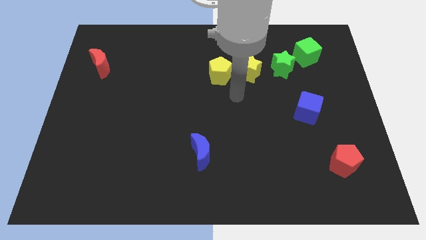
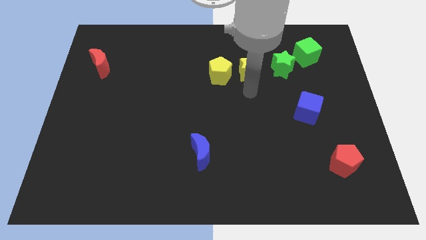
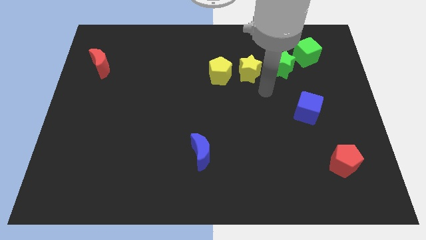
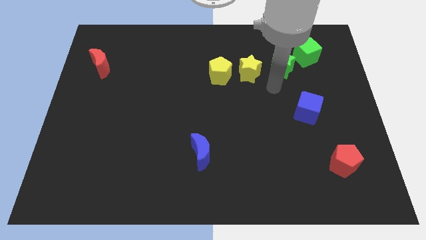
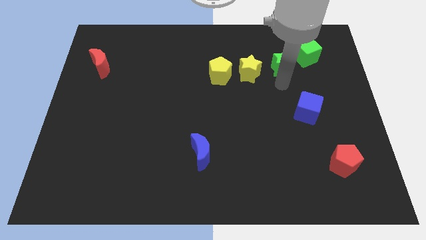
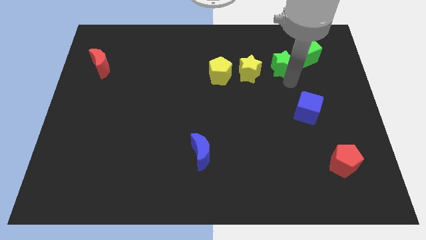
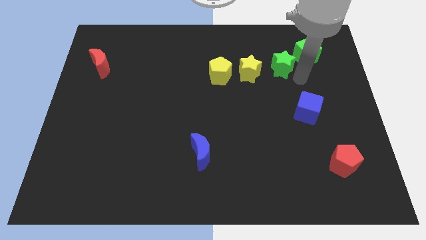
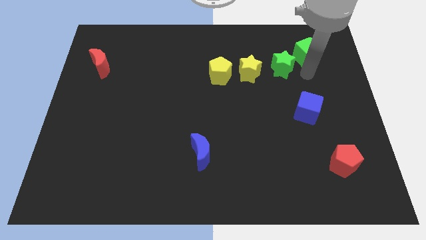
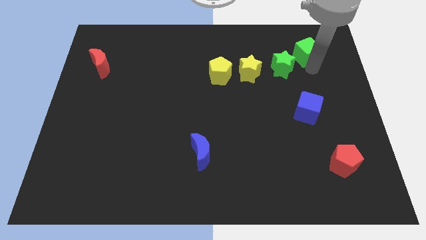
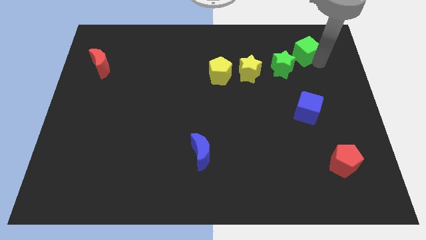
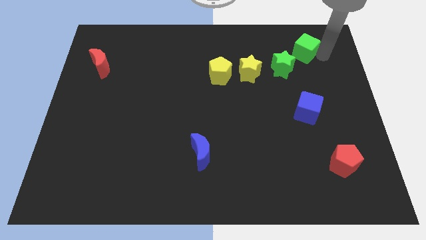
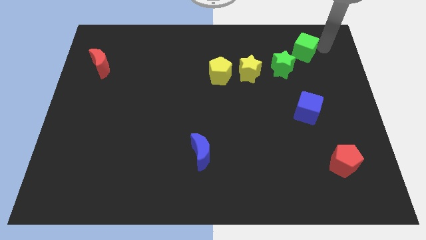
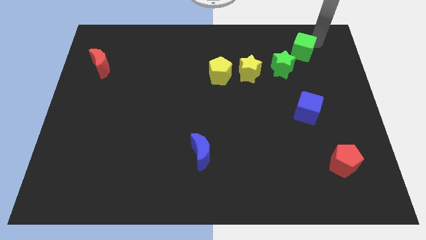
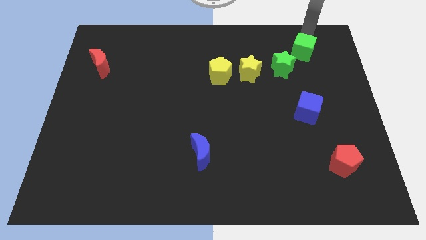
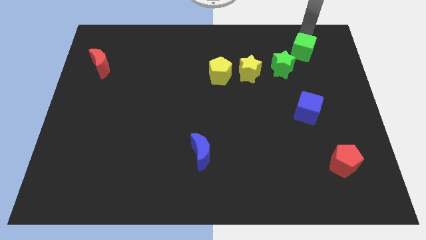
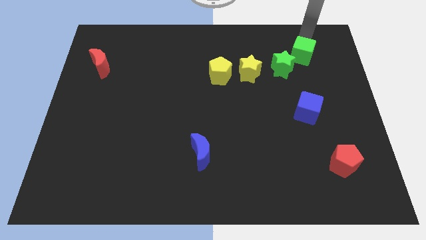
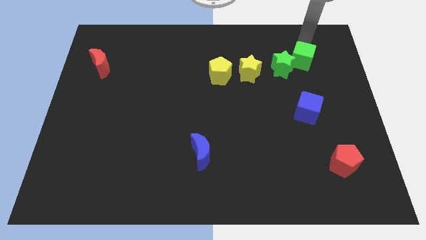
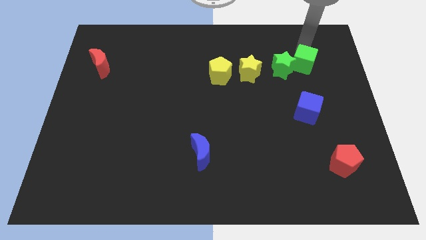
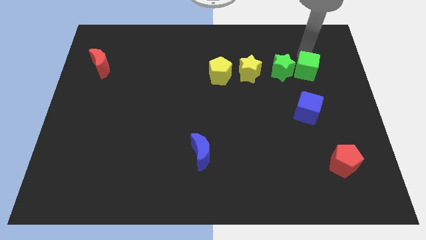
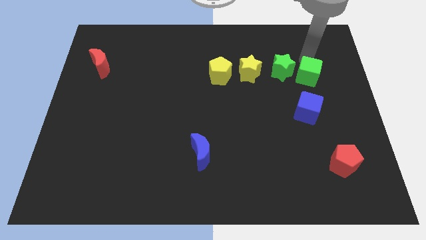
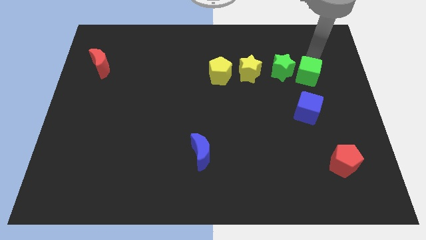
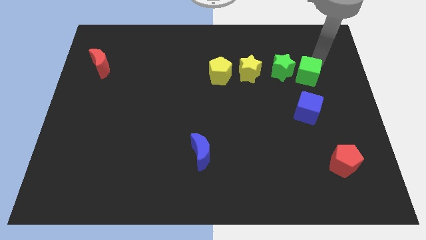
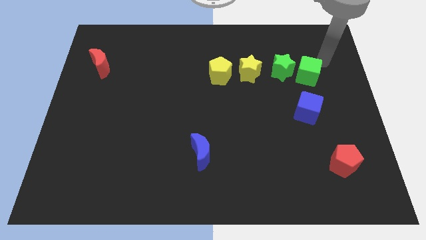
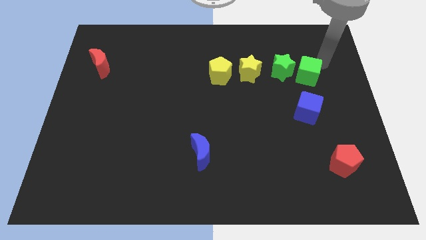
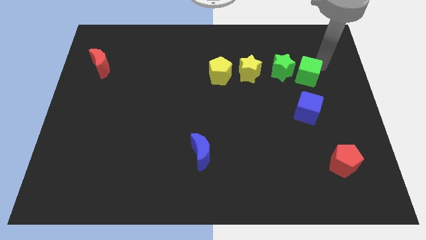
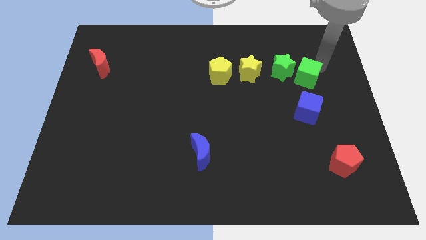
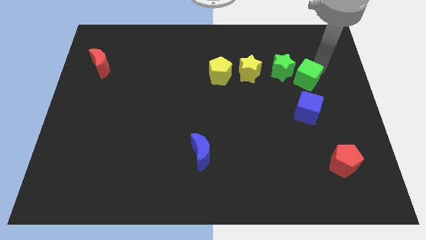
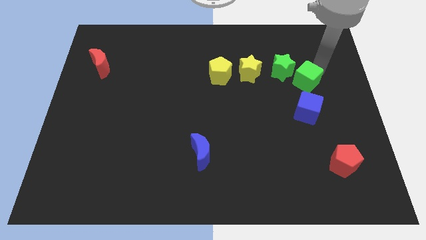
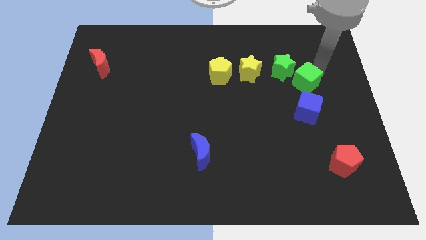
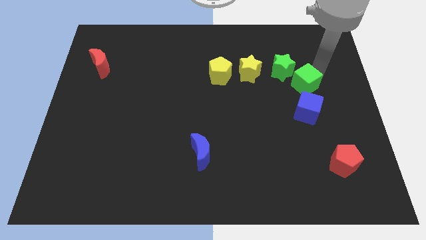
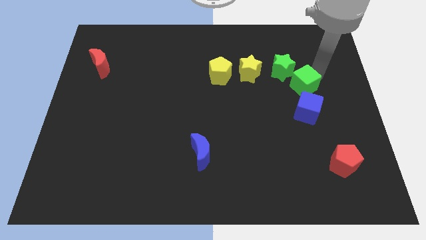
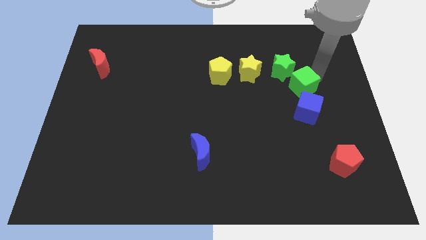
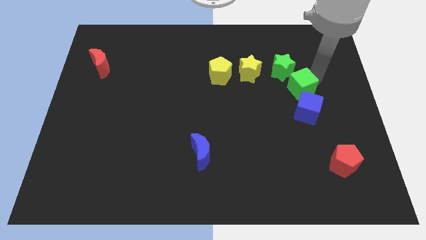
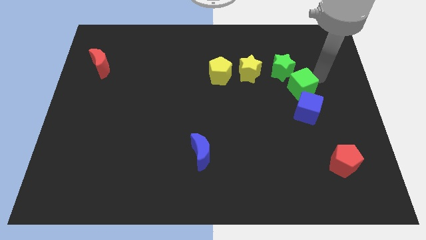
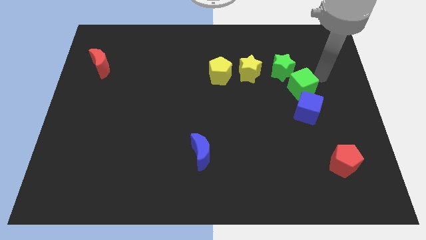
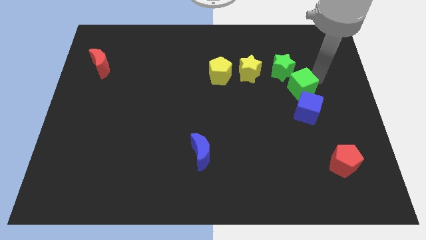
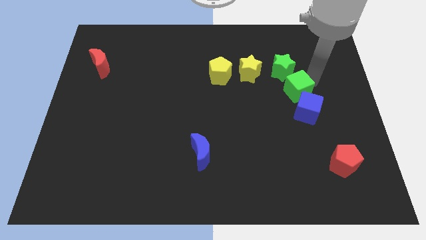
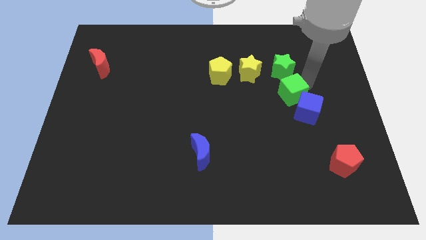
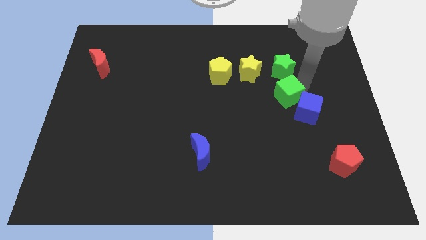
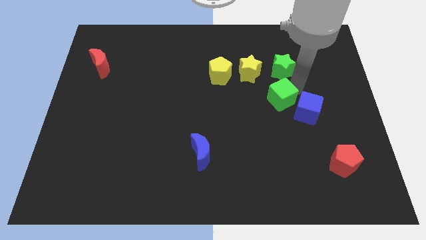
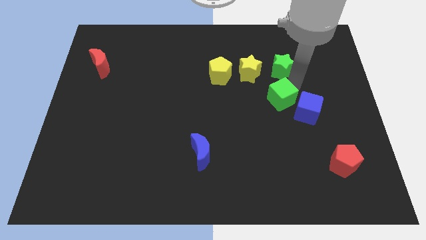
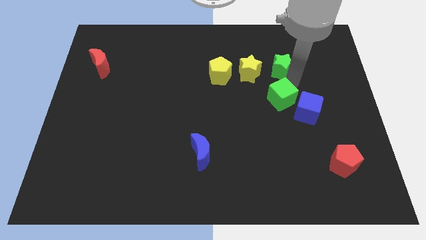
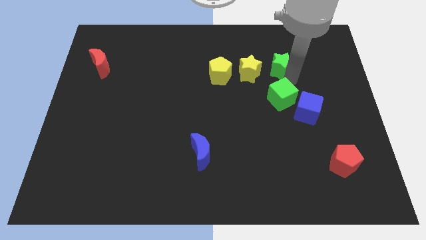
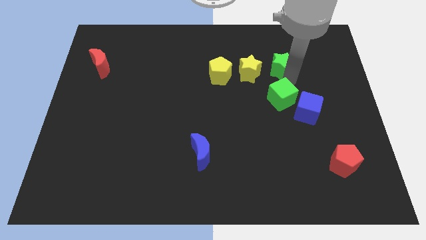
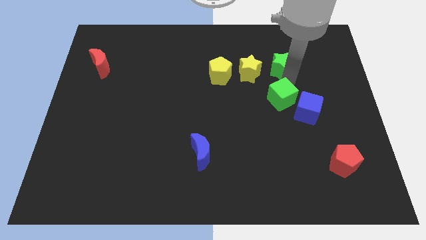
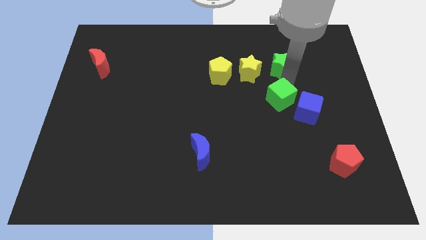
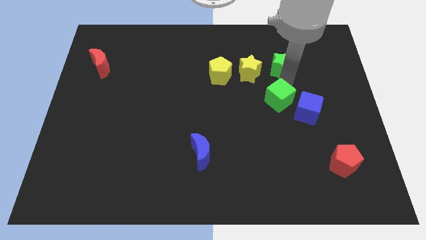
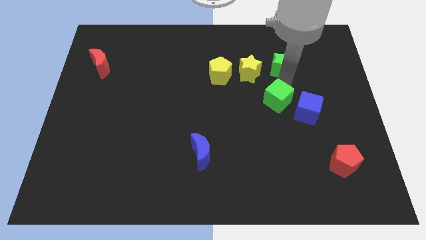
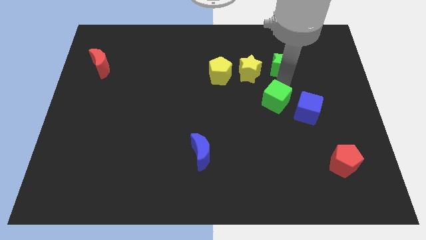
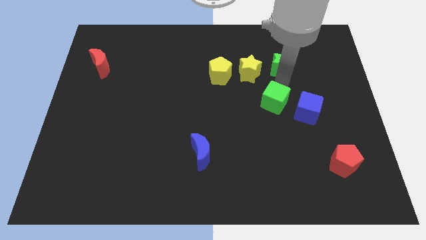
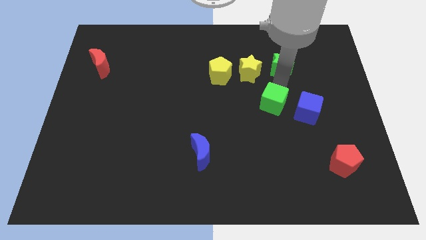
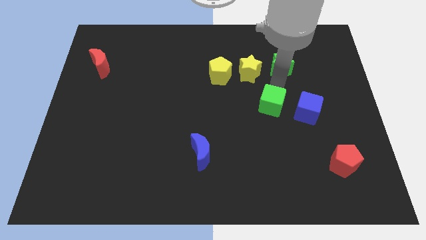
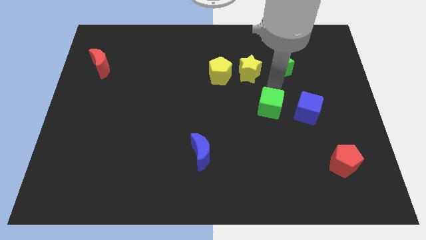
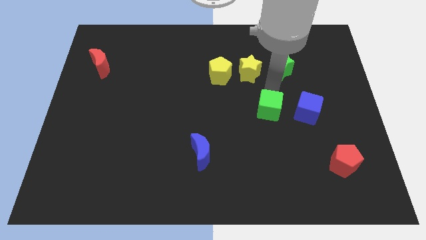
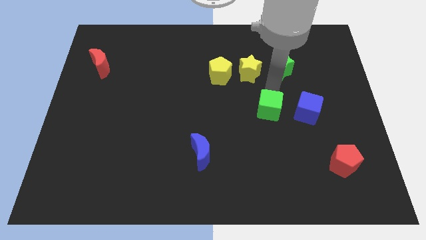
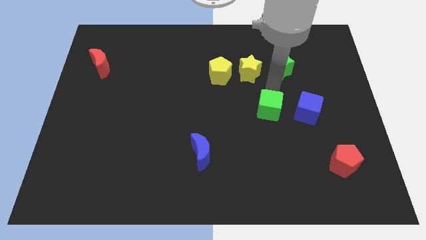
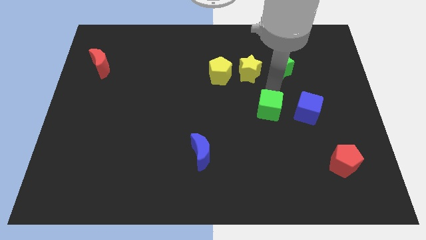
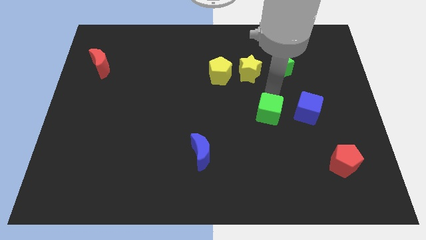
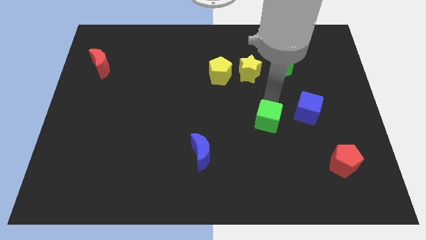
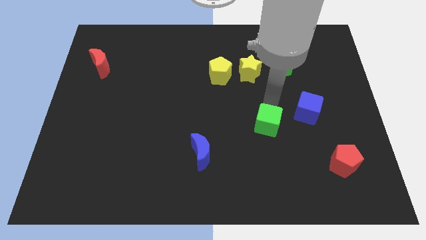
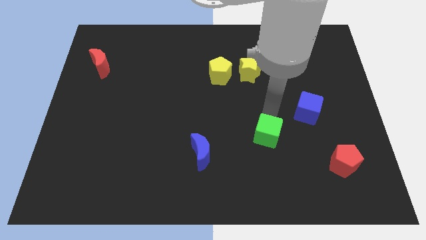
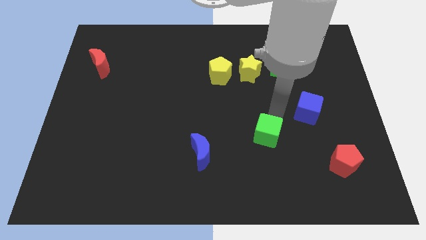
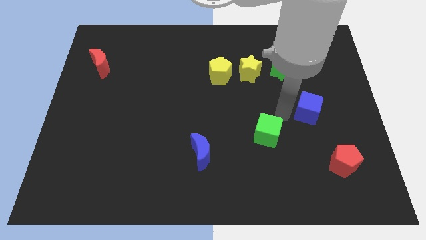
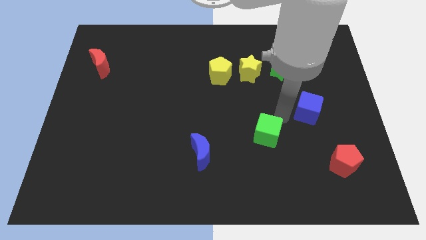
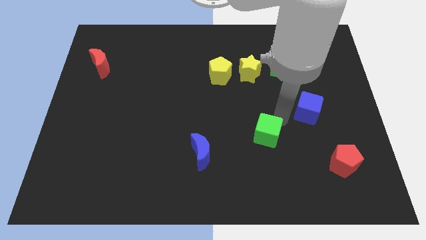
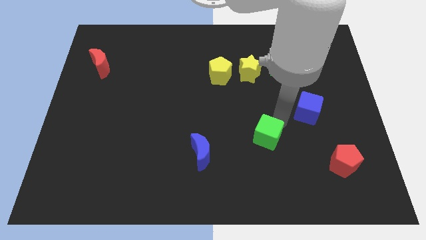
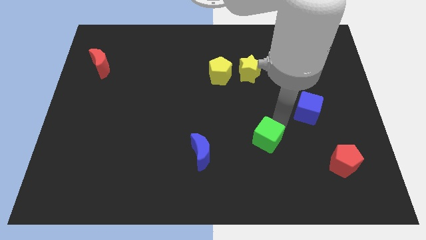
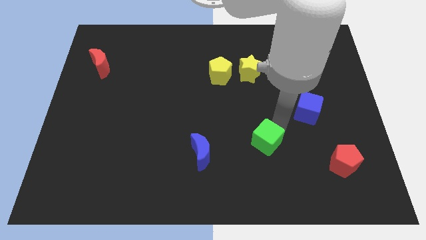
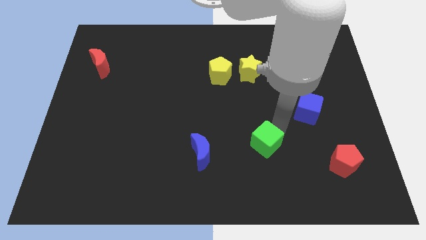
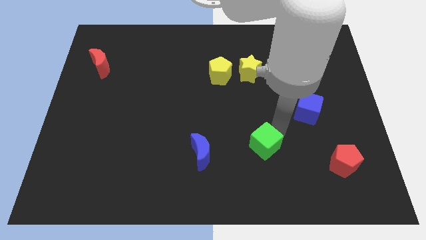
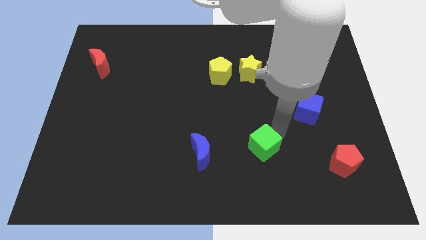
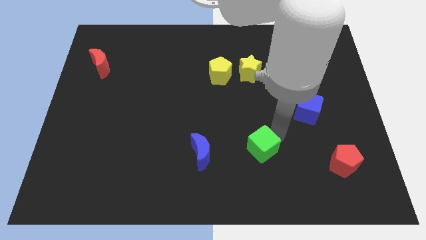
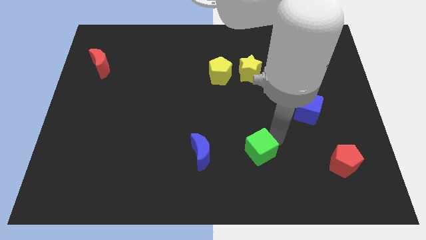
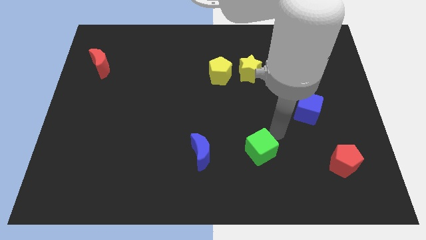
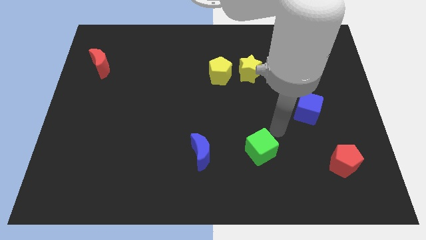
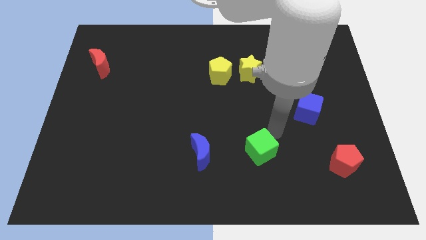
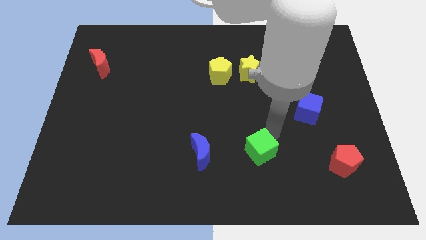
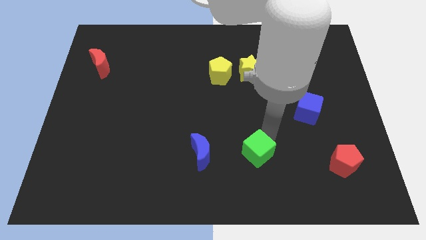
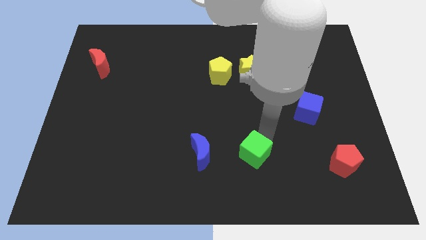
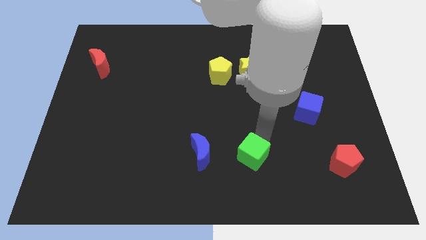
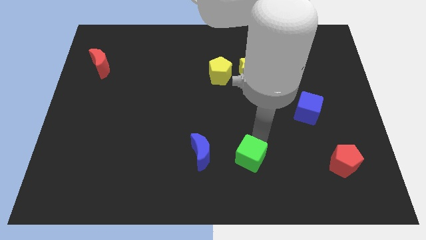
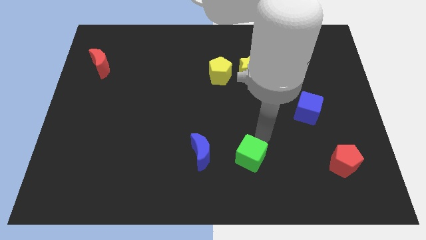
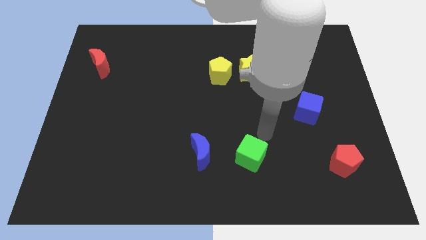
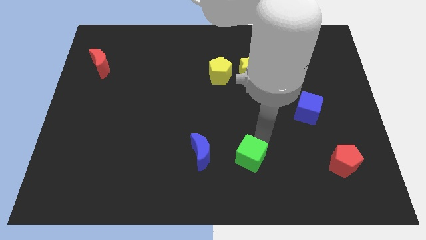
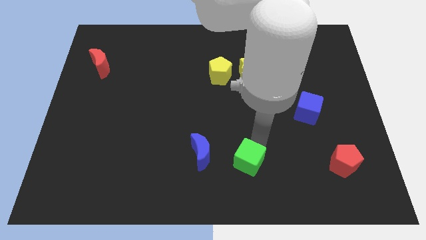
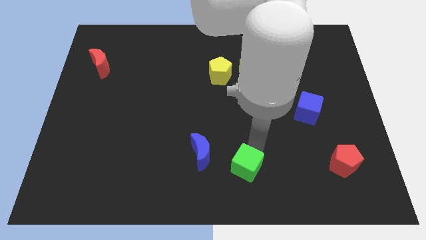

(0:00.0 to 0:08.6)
put the green cube to the bottom
